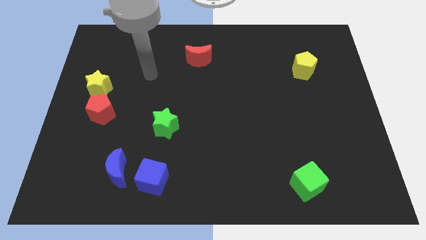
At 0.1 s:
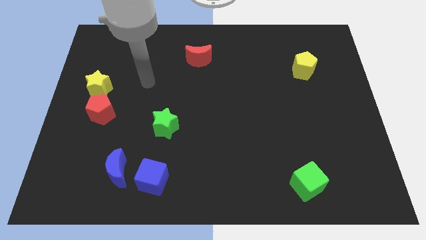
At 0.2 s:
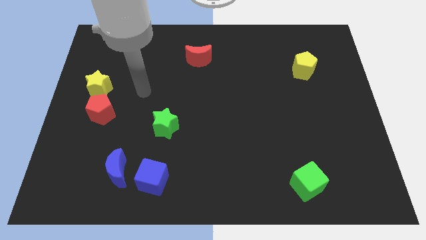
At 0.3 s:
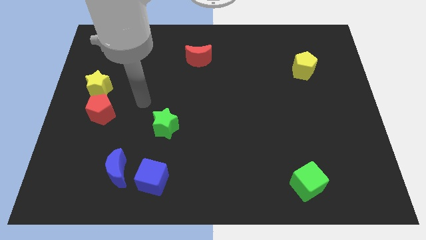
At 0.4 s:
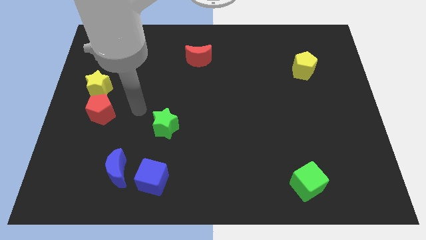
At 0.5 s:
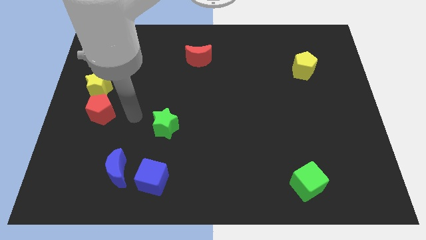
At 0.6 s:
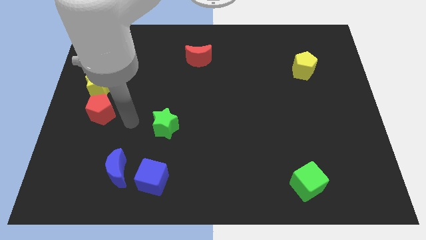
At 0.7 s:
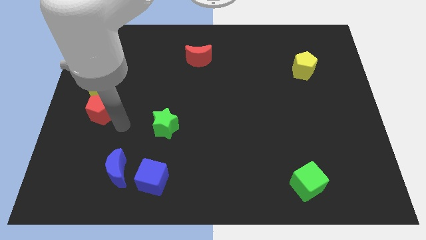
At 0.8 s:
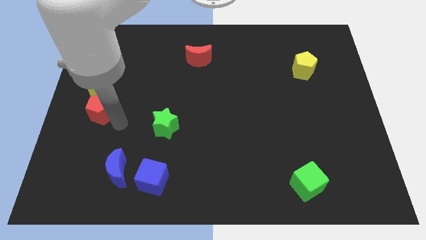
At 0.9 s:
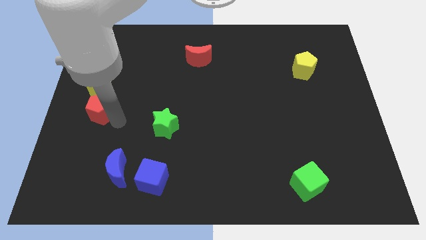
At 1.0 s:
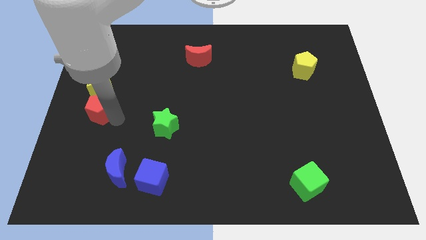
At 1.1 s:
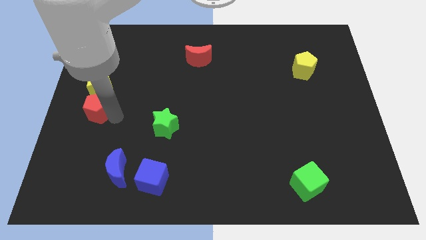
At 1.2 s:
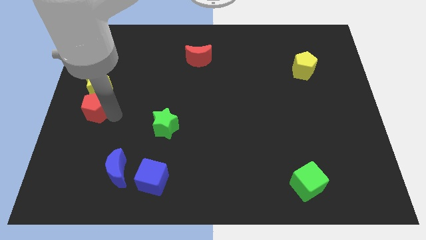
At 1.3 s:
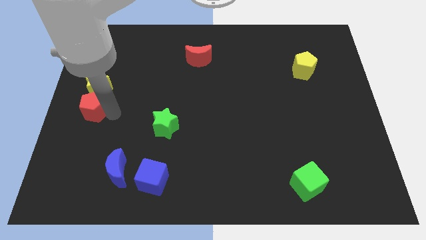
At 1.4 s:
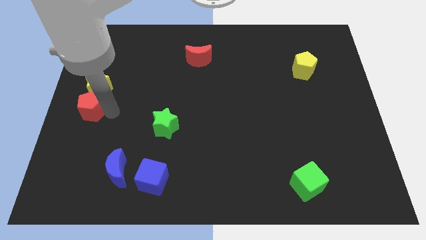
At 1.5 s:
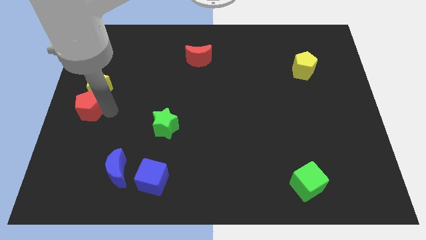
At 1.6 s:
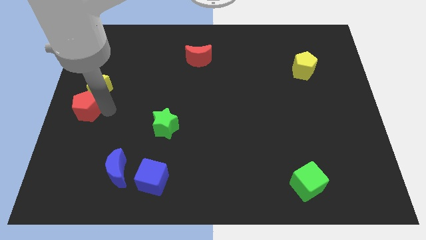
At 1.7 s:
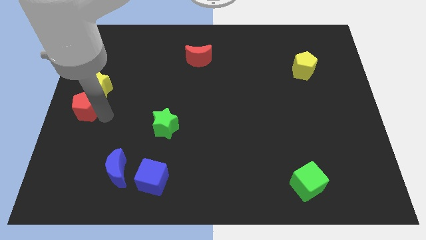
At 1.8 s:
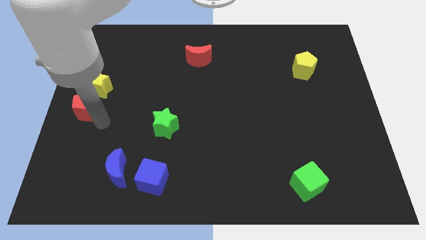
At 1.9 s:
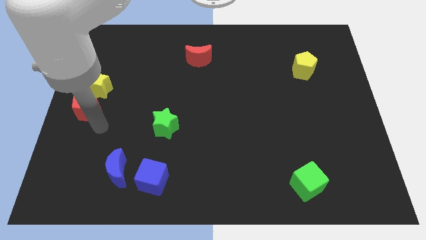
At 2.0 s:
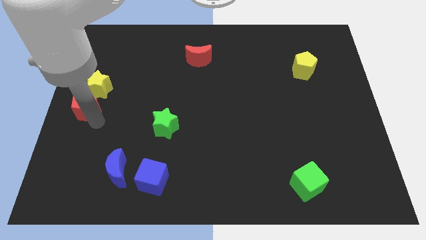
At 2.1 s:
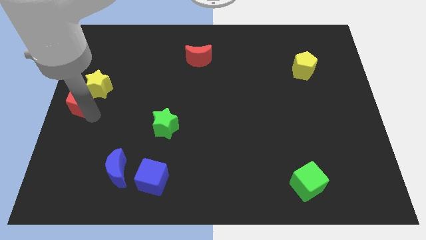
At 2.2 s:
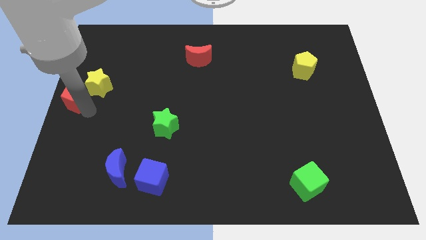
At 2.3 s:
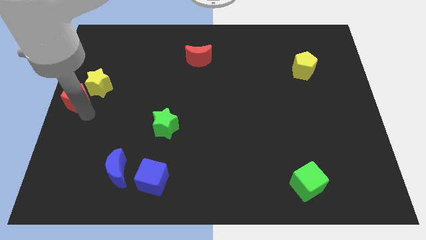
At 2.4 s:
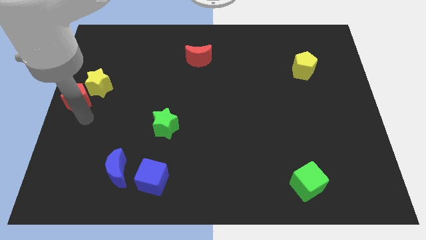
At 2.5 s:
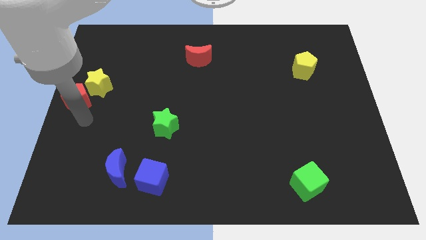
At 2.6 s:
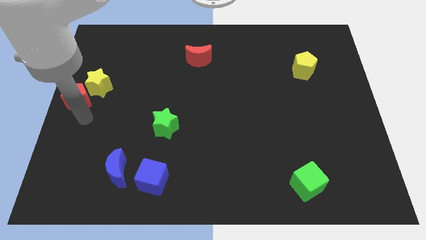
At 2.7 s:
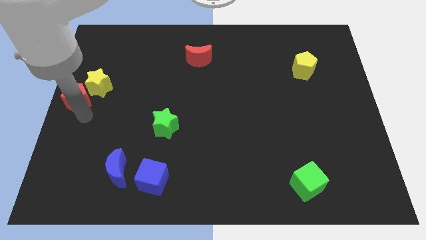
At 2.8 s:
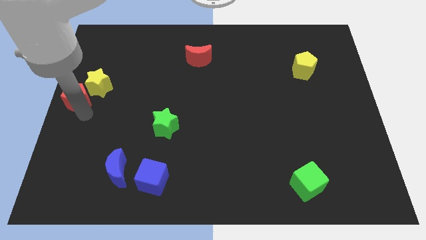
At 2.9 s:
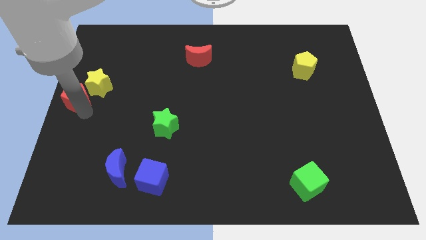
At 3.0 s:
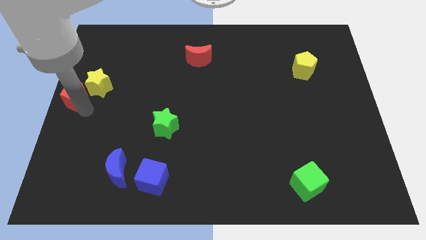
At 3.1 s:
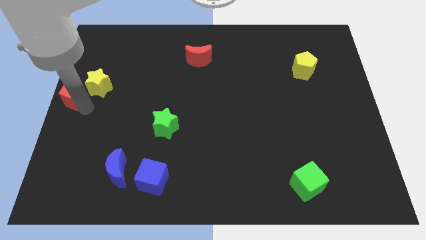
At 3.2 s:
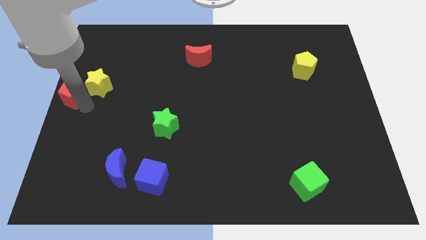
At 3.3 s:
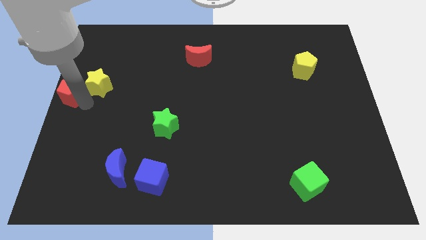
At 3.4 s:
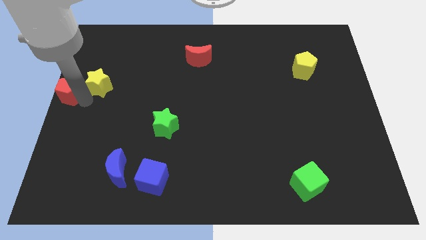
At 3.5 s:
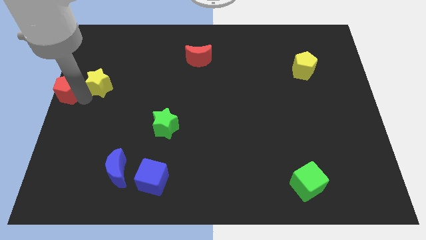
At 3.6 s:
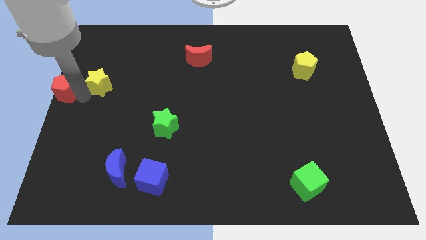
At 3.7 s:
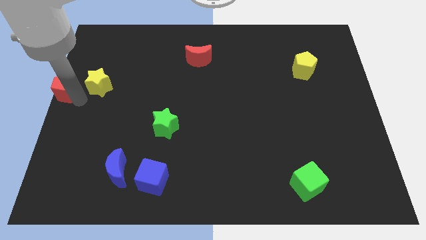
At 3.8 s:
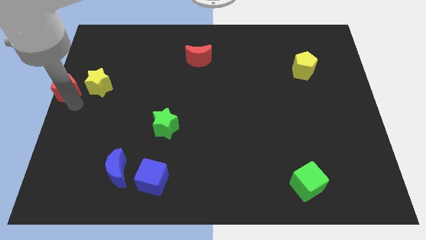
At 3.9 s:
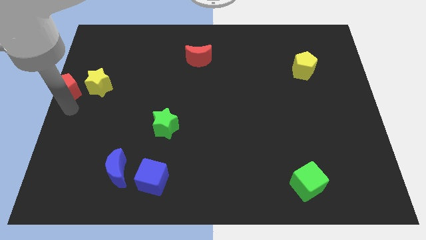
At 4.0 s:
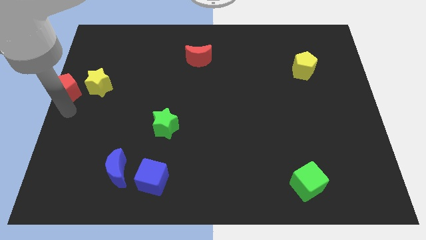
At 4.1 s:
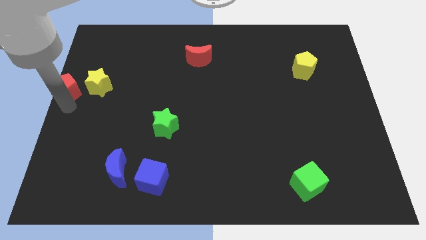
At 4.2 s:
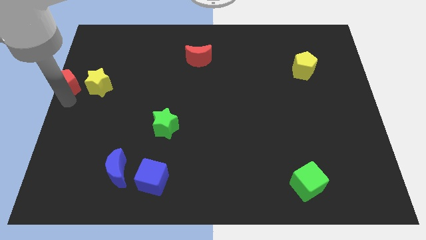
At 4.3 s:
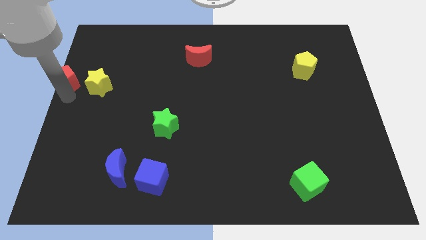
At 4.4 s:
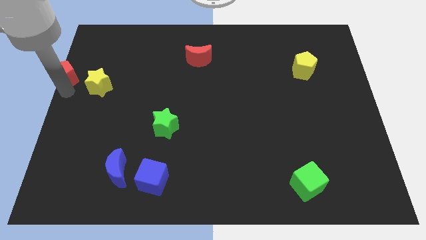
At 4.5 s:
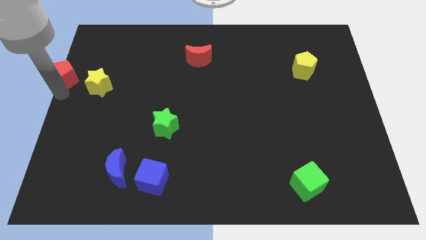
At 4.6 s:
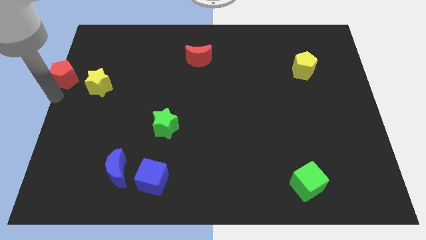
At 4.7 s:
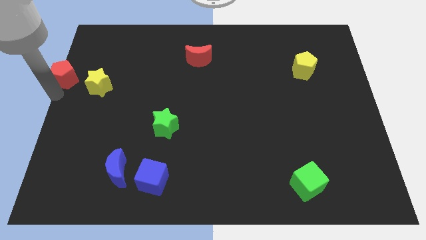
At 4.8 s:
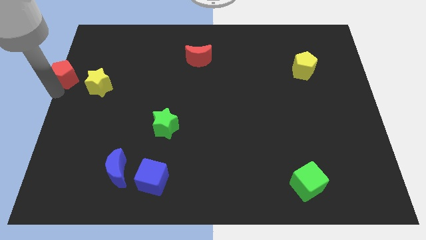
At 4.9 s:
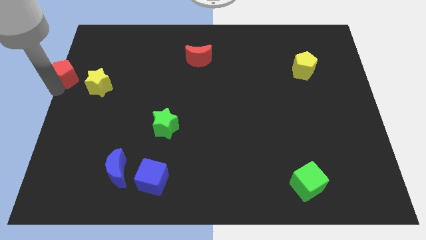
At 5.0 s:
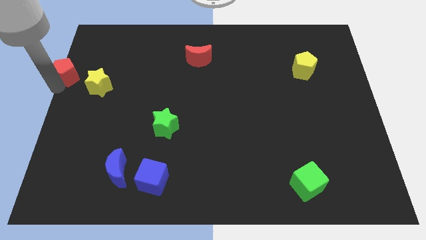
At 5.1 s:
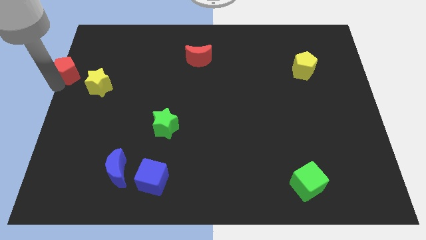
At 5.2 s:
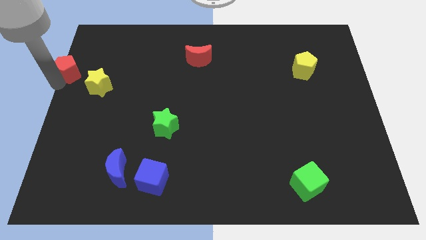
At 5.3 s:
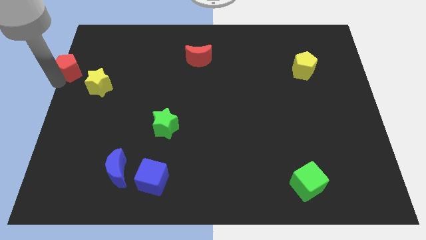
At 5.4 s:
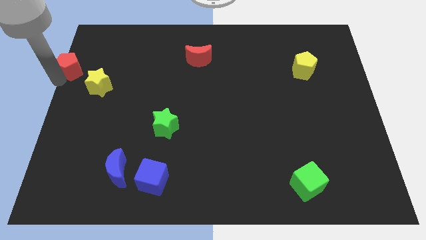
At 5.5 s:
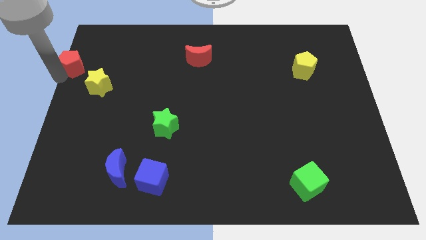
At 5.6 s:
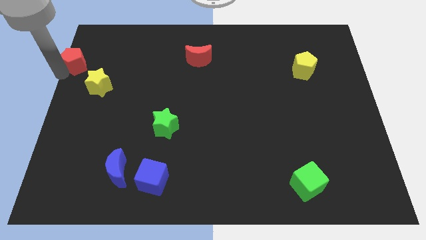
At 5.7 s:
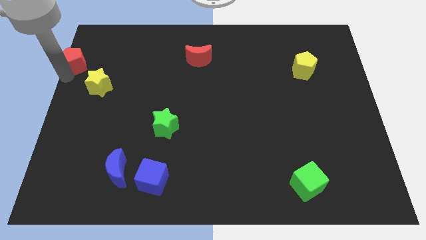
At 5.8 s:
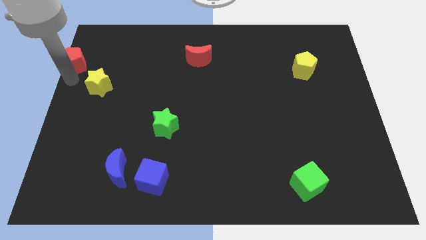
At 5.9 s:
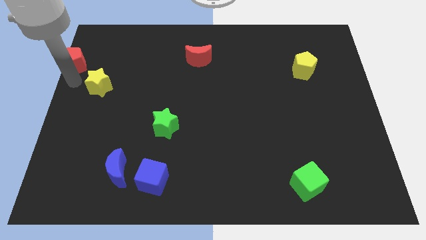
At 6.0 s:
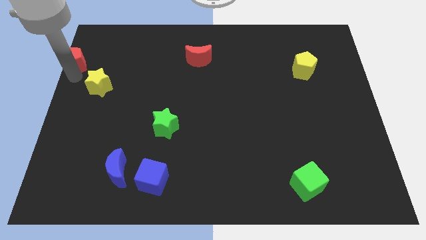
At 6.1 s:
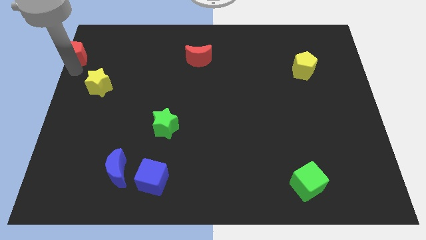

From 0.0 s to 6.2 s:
put the red pentagon to the top left corner

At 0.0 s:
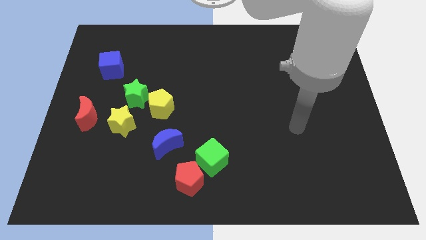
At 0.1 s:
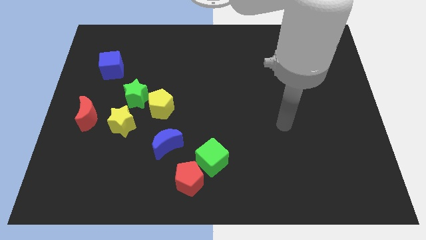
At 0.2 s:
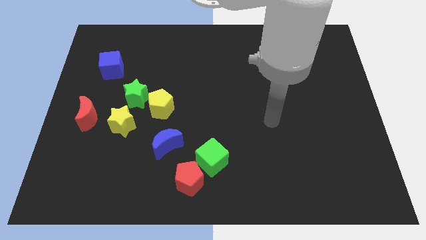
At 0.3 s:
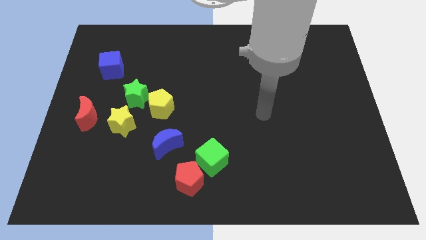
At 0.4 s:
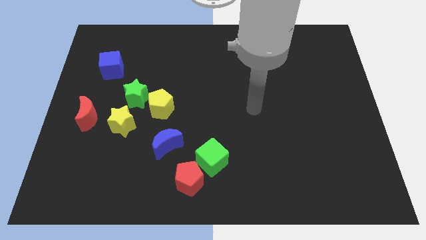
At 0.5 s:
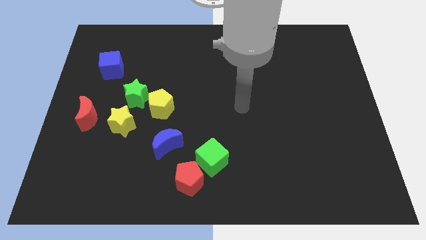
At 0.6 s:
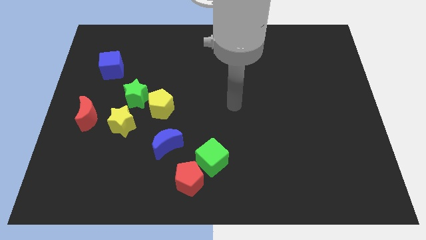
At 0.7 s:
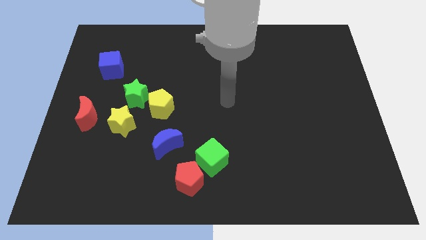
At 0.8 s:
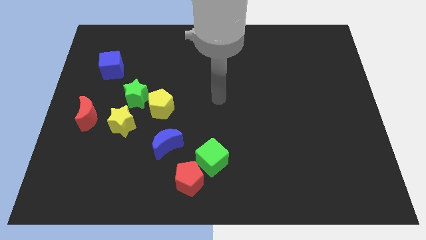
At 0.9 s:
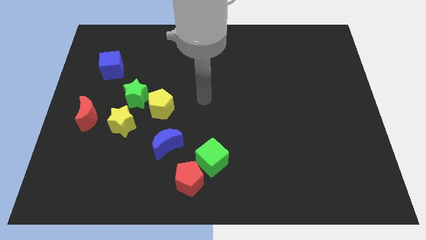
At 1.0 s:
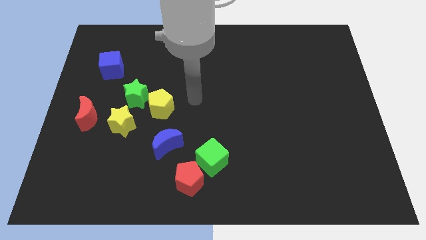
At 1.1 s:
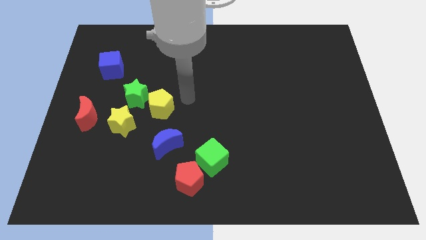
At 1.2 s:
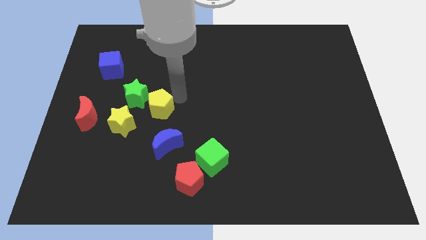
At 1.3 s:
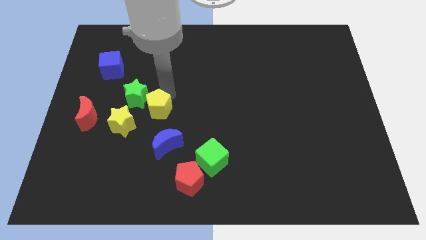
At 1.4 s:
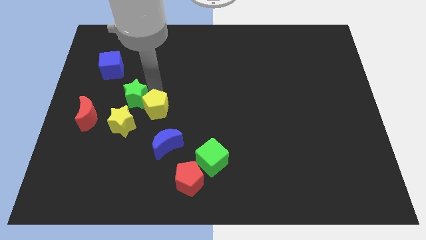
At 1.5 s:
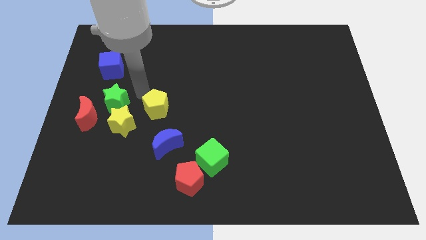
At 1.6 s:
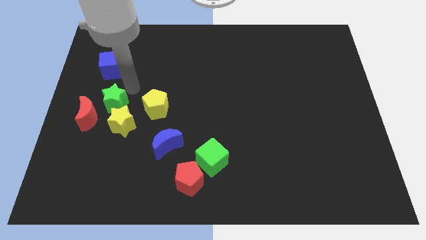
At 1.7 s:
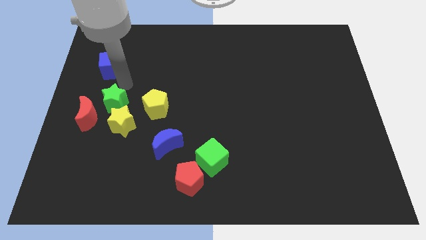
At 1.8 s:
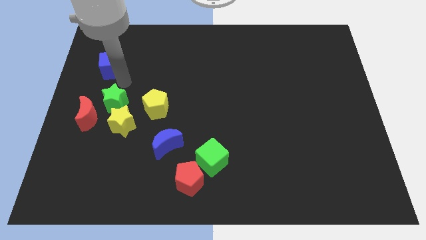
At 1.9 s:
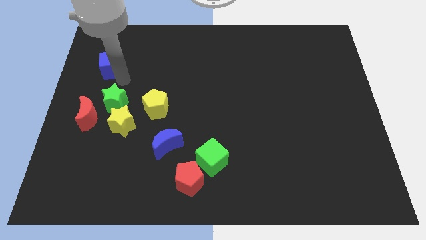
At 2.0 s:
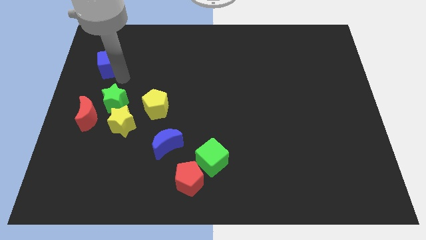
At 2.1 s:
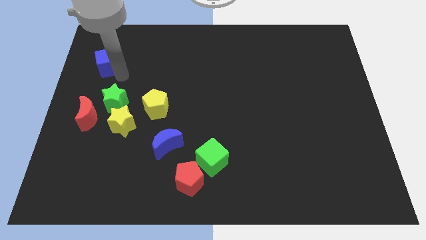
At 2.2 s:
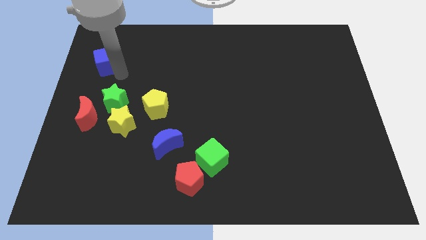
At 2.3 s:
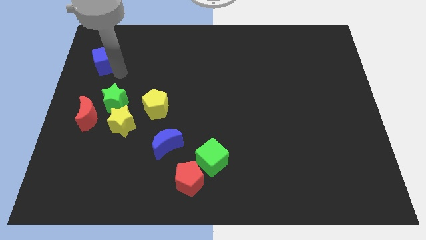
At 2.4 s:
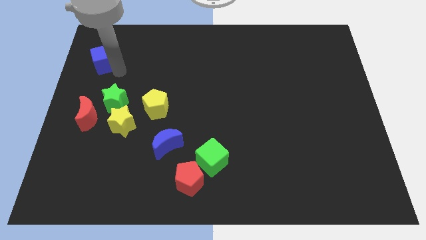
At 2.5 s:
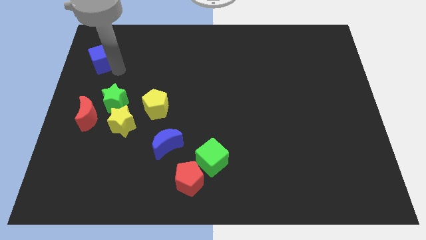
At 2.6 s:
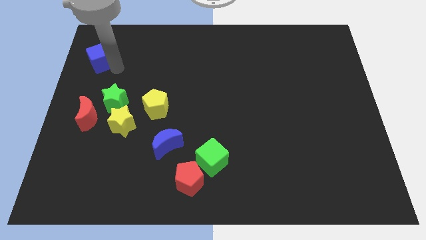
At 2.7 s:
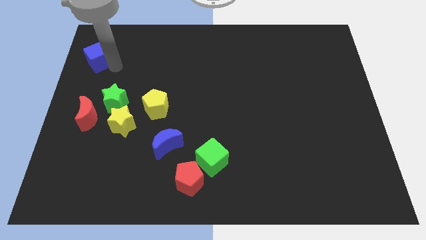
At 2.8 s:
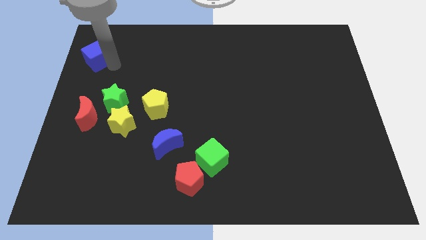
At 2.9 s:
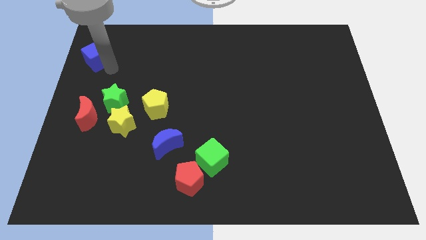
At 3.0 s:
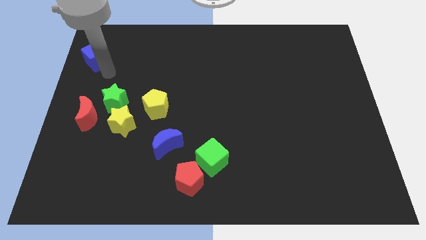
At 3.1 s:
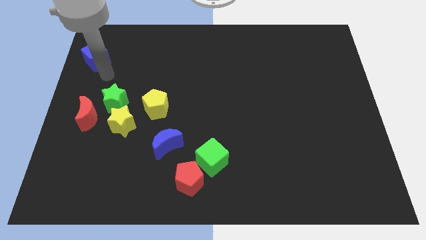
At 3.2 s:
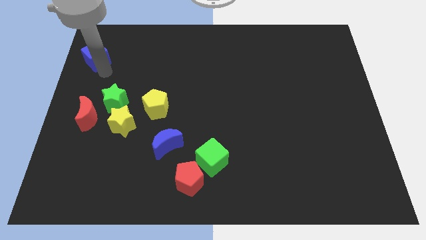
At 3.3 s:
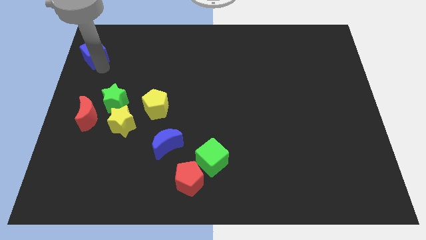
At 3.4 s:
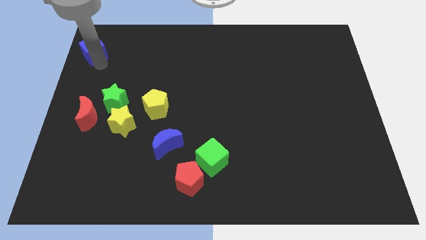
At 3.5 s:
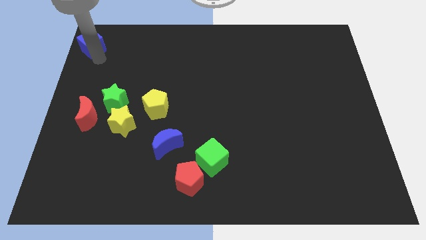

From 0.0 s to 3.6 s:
move the blue cube to the upper left corner
